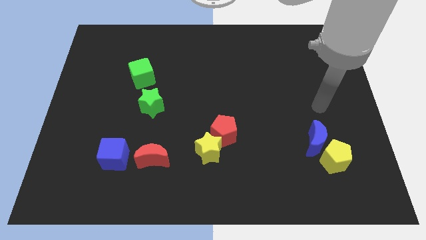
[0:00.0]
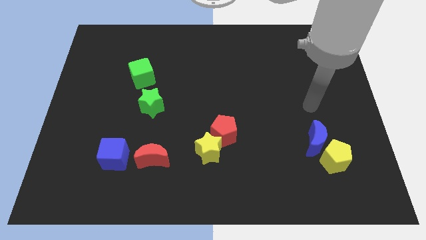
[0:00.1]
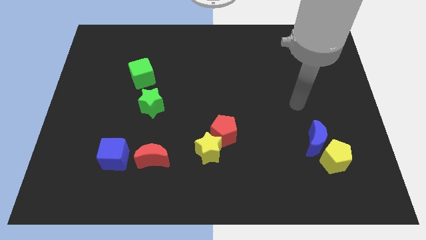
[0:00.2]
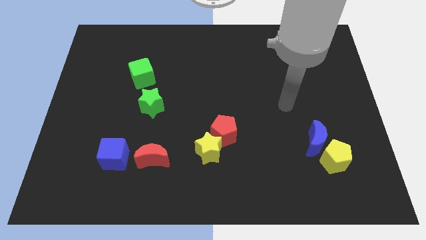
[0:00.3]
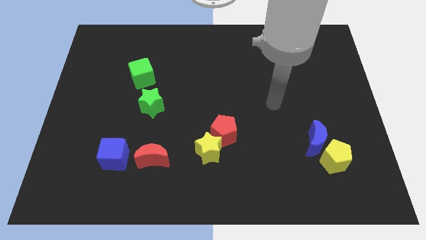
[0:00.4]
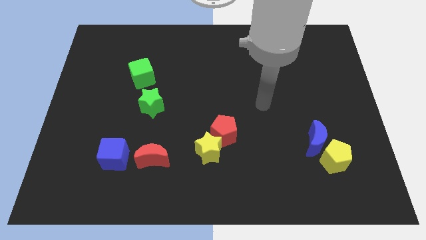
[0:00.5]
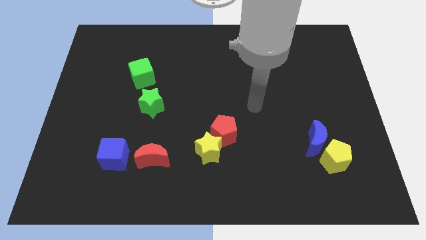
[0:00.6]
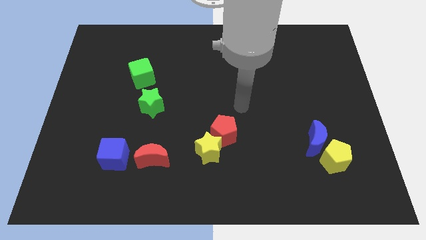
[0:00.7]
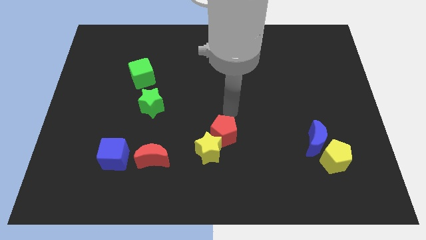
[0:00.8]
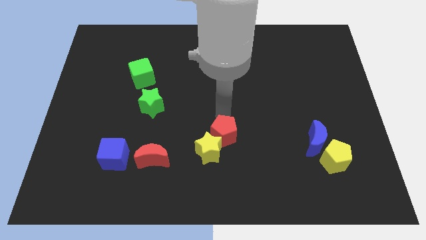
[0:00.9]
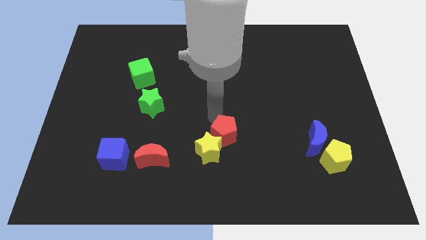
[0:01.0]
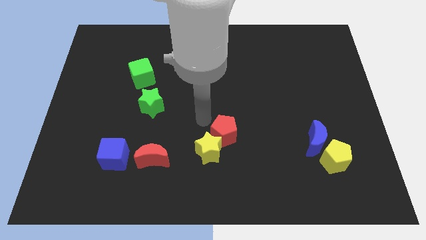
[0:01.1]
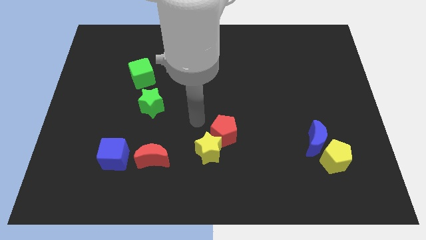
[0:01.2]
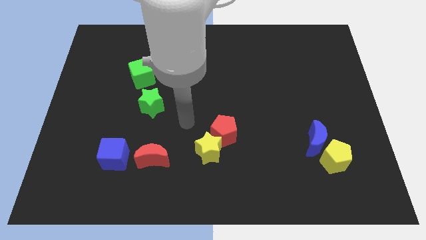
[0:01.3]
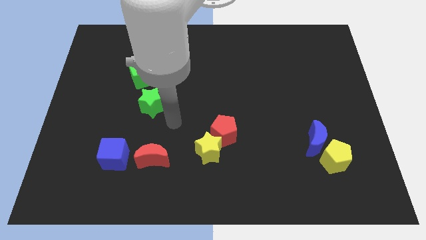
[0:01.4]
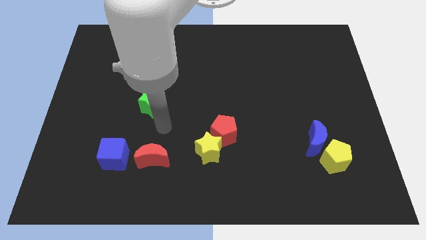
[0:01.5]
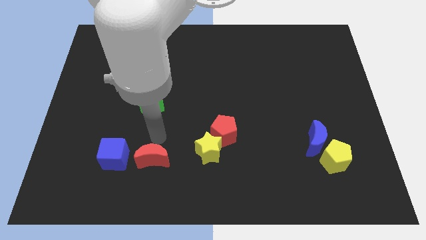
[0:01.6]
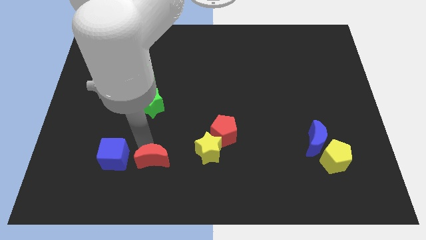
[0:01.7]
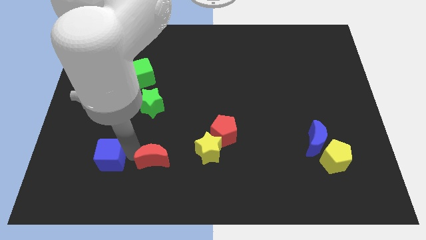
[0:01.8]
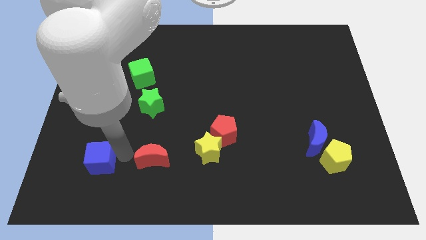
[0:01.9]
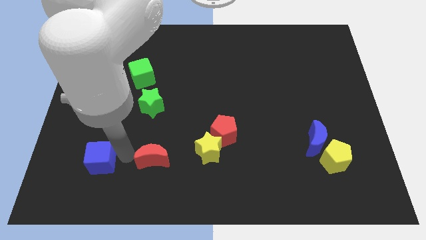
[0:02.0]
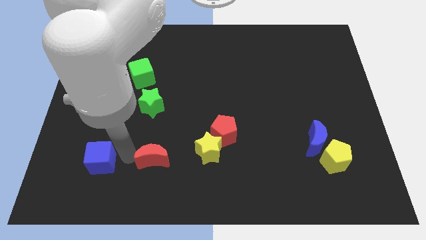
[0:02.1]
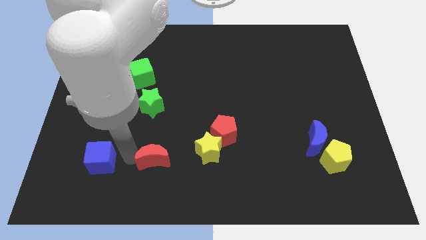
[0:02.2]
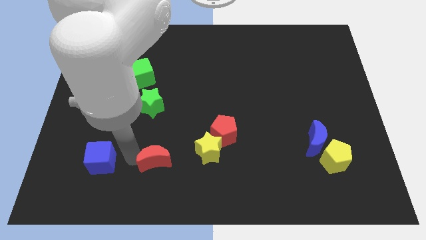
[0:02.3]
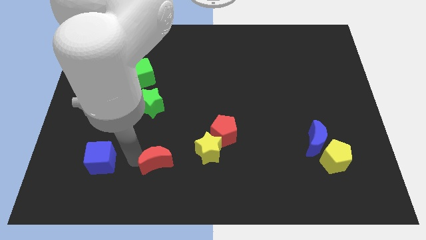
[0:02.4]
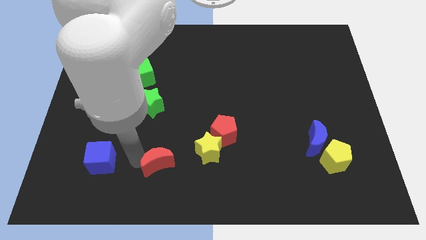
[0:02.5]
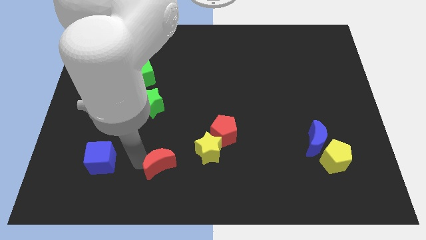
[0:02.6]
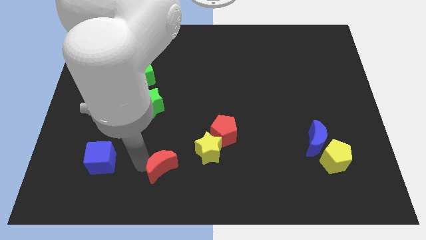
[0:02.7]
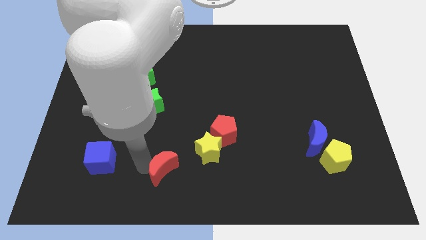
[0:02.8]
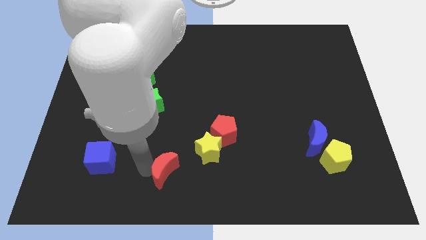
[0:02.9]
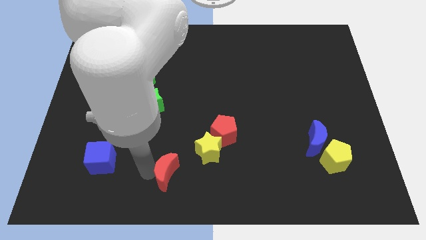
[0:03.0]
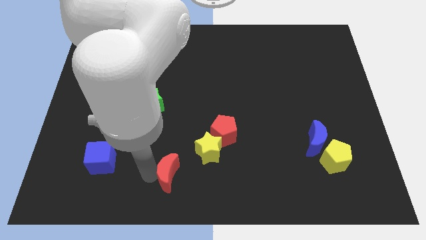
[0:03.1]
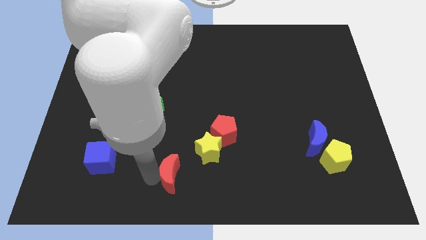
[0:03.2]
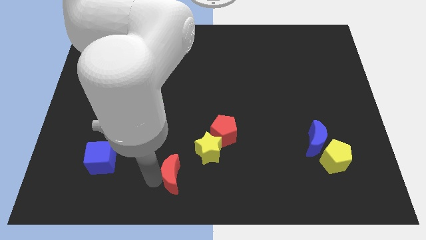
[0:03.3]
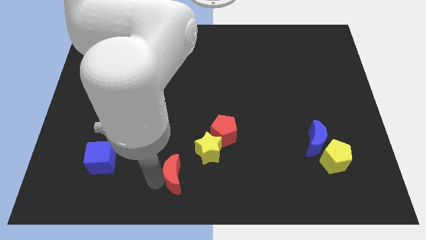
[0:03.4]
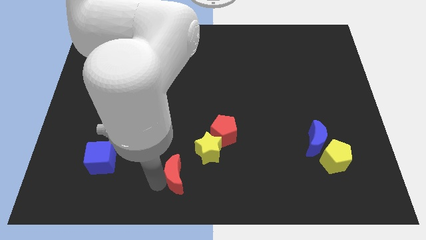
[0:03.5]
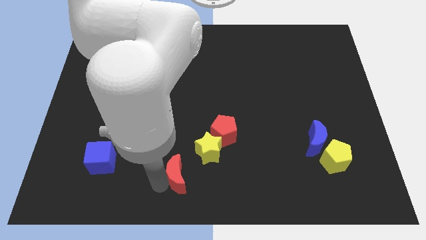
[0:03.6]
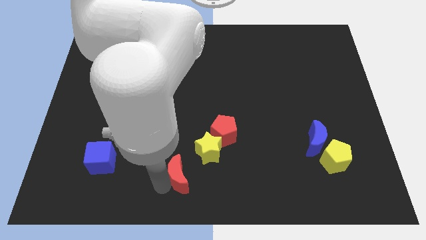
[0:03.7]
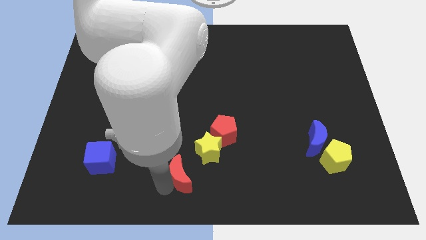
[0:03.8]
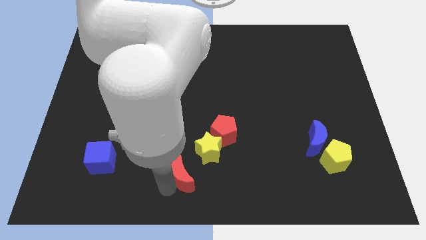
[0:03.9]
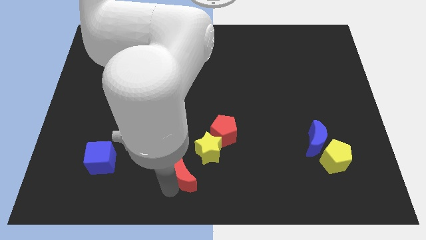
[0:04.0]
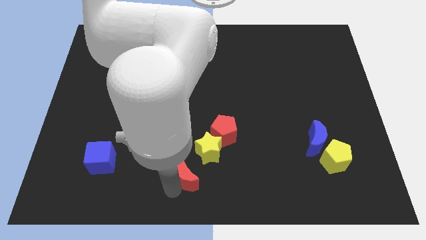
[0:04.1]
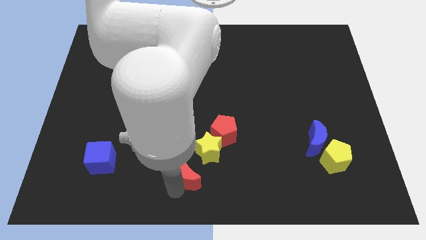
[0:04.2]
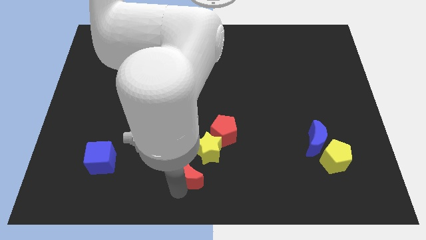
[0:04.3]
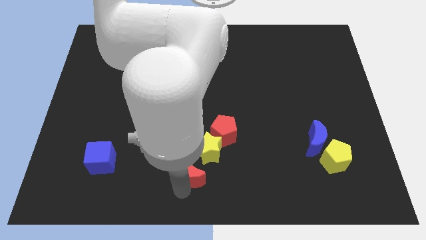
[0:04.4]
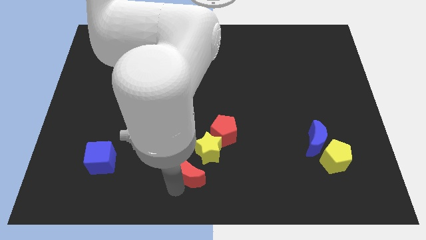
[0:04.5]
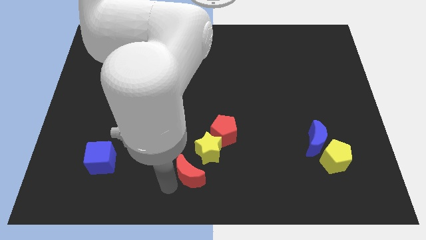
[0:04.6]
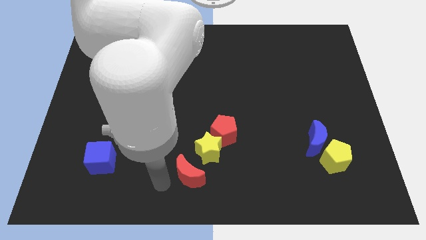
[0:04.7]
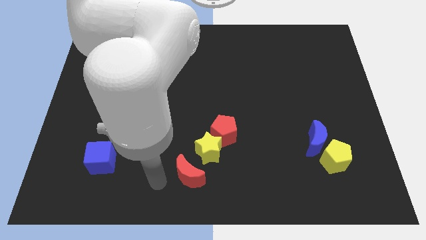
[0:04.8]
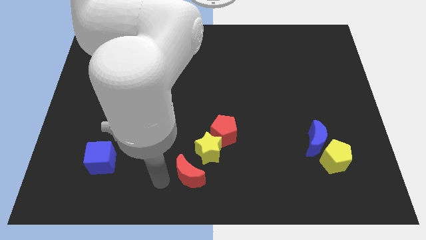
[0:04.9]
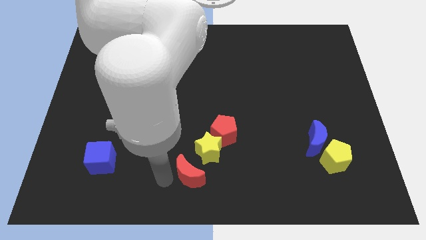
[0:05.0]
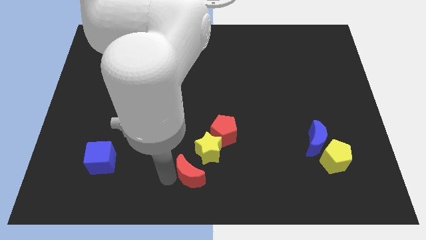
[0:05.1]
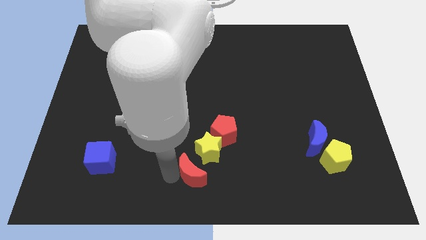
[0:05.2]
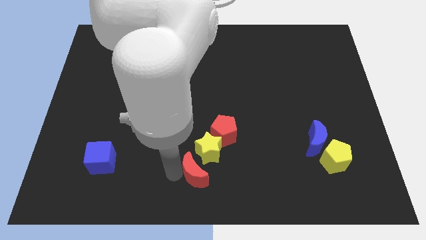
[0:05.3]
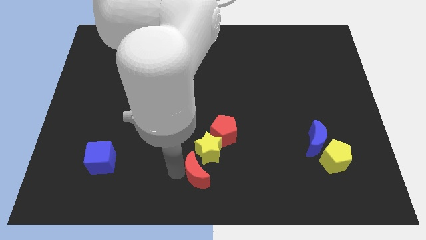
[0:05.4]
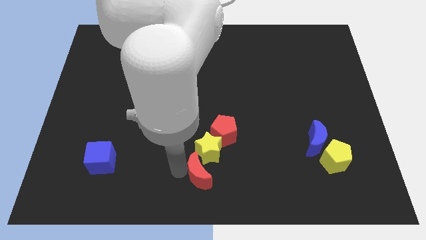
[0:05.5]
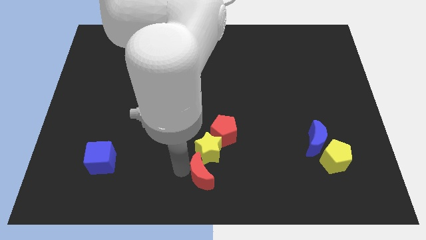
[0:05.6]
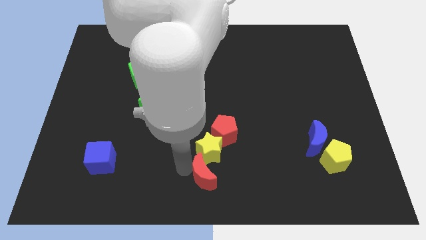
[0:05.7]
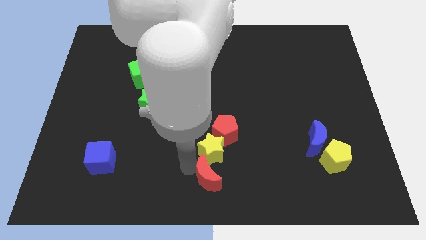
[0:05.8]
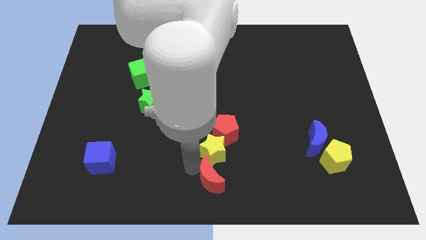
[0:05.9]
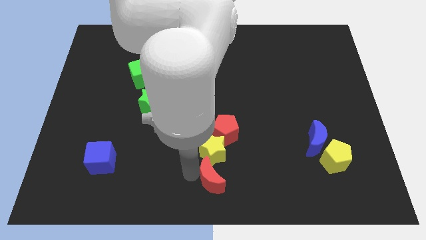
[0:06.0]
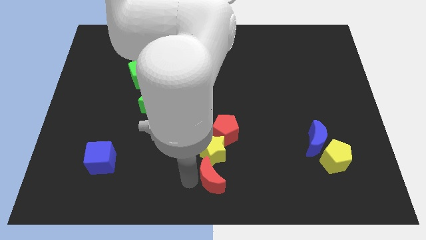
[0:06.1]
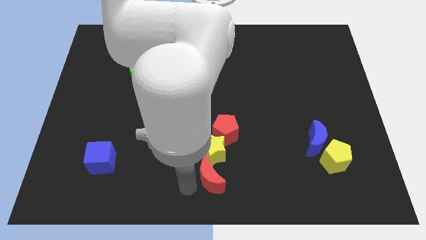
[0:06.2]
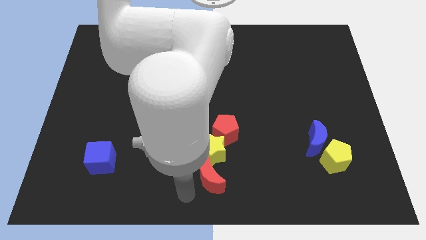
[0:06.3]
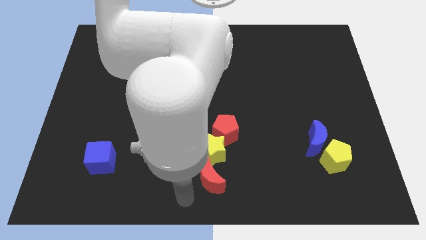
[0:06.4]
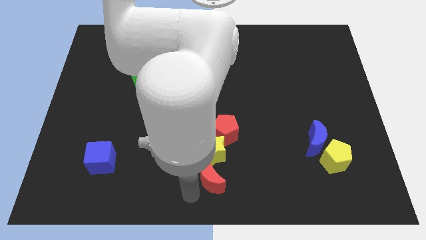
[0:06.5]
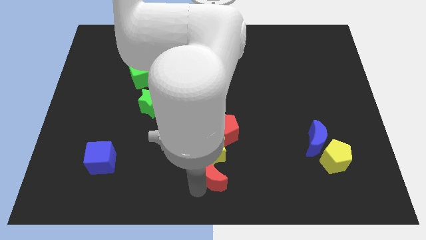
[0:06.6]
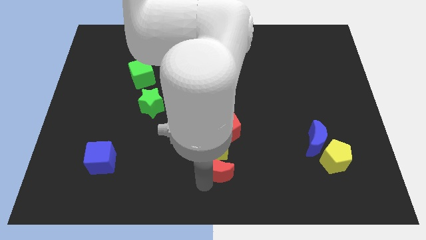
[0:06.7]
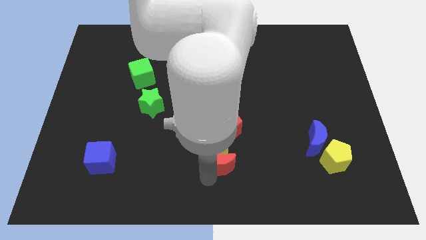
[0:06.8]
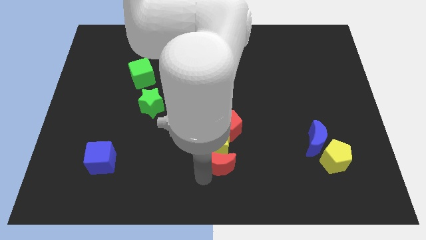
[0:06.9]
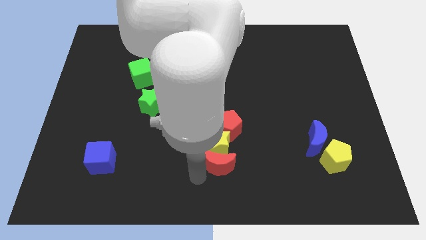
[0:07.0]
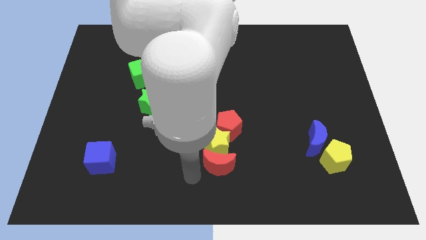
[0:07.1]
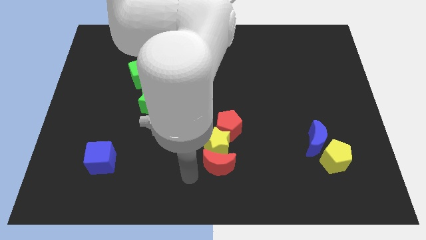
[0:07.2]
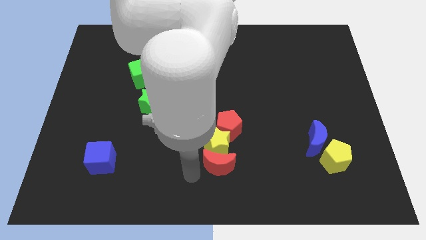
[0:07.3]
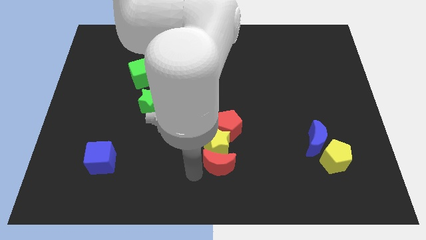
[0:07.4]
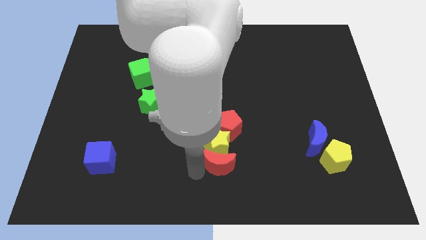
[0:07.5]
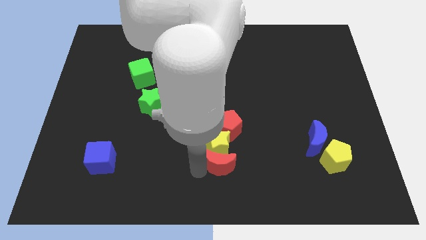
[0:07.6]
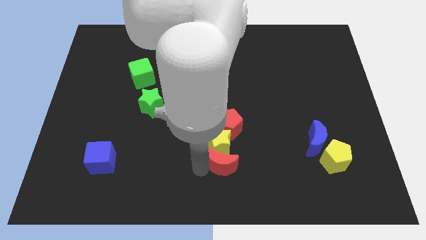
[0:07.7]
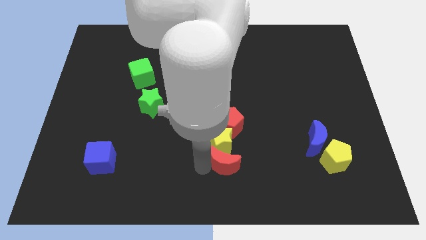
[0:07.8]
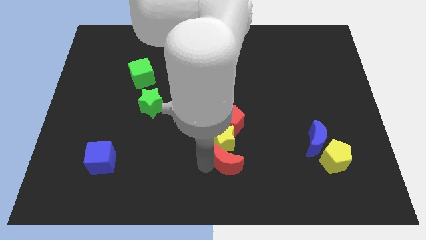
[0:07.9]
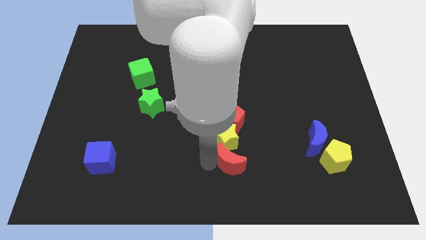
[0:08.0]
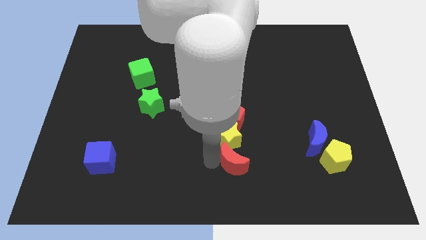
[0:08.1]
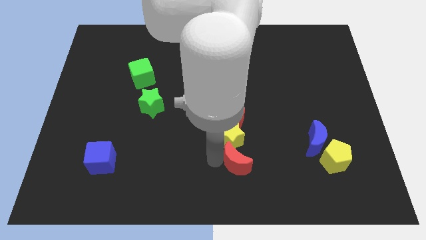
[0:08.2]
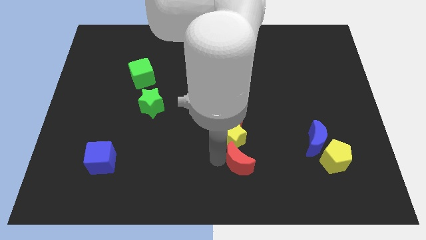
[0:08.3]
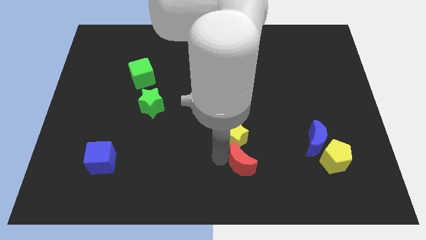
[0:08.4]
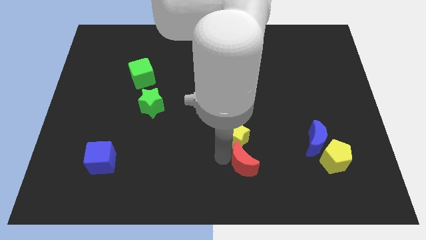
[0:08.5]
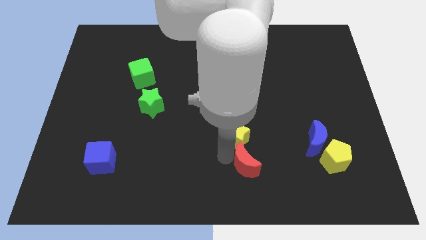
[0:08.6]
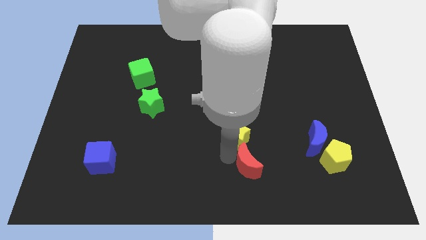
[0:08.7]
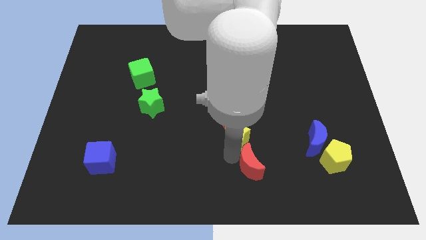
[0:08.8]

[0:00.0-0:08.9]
push the red moon right
